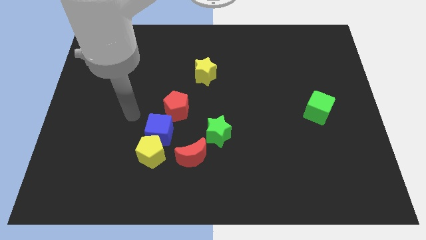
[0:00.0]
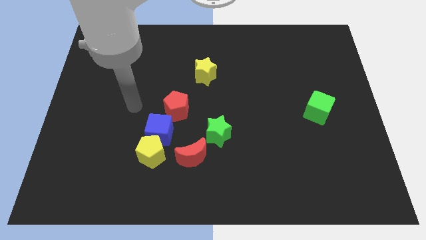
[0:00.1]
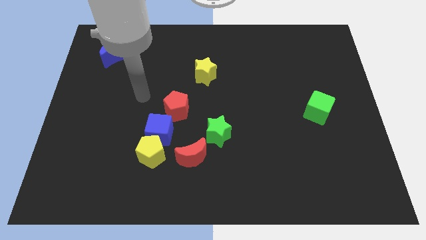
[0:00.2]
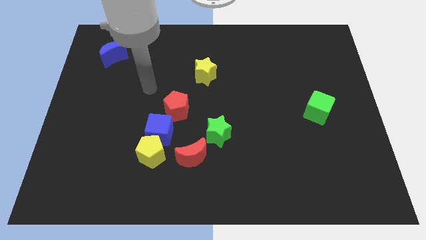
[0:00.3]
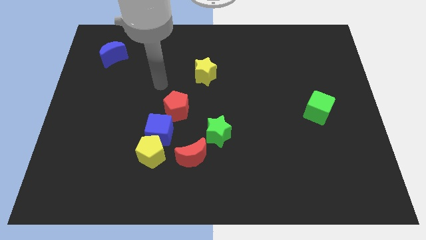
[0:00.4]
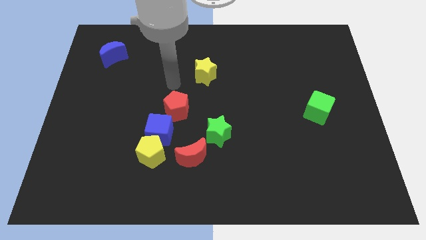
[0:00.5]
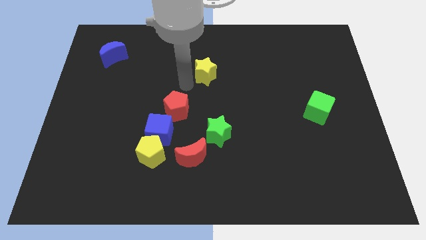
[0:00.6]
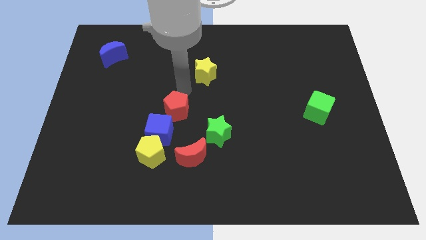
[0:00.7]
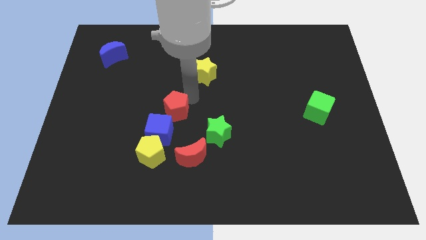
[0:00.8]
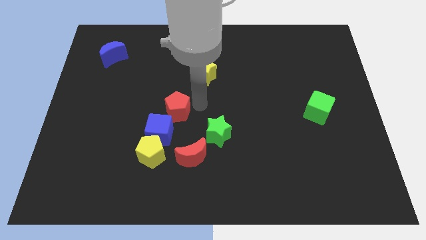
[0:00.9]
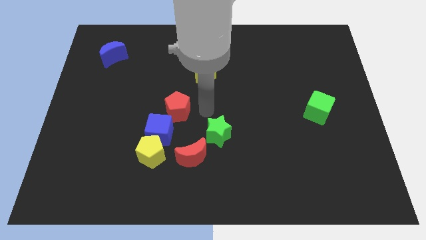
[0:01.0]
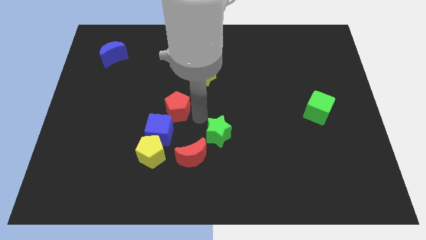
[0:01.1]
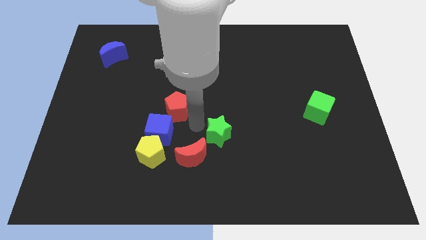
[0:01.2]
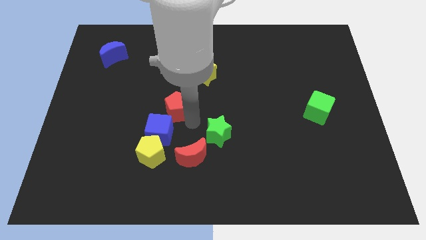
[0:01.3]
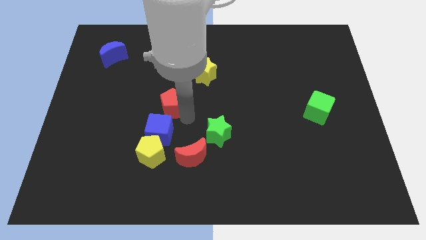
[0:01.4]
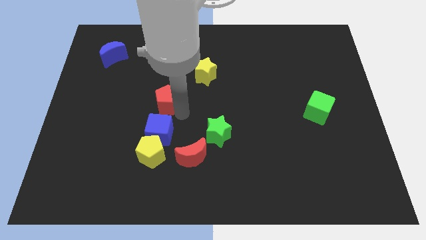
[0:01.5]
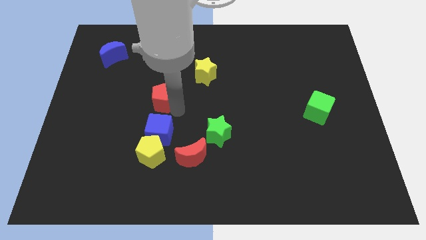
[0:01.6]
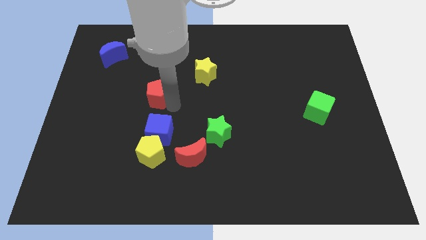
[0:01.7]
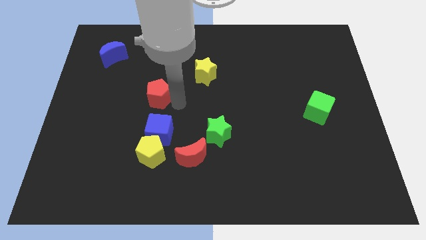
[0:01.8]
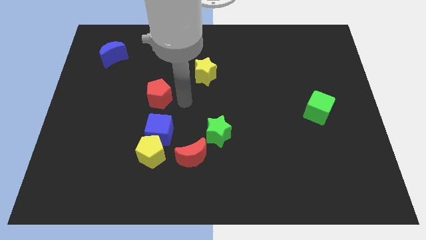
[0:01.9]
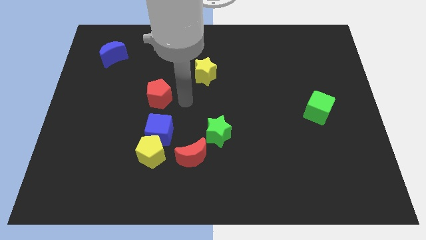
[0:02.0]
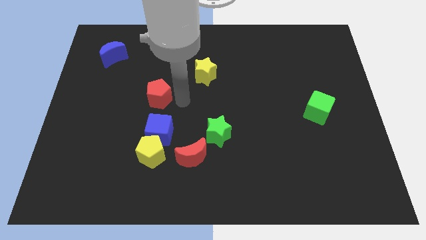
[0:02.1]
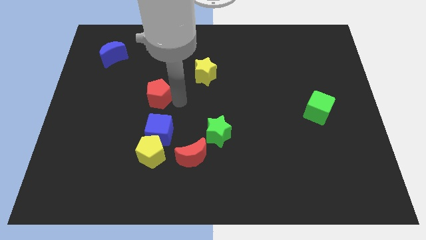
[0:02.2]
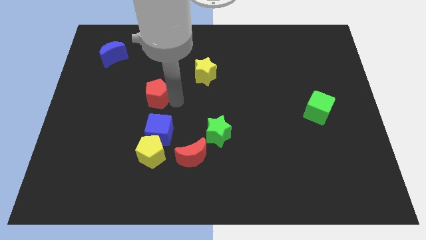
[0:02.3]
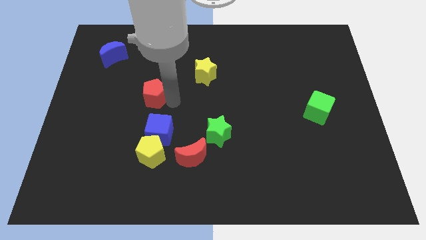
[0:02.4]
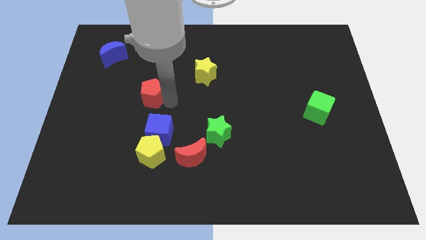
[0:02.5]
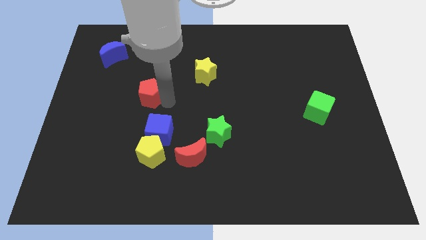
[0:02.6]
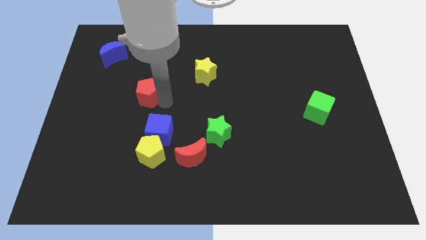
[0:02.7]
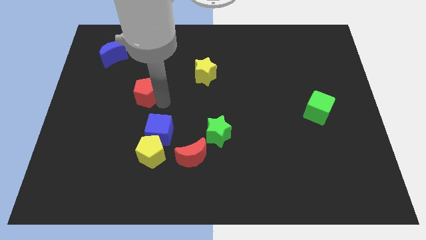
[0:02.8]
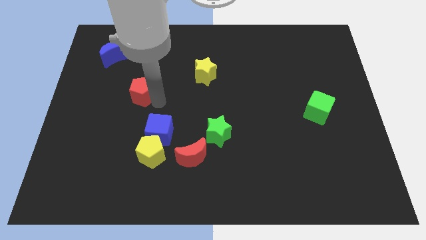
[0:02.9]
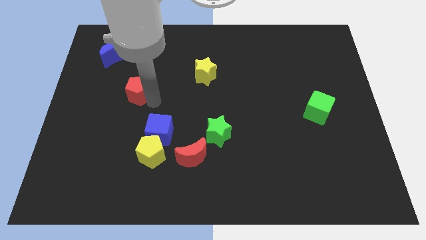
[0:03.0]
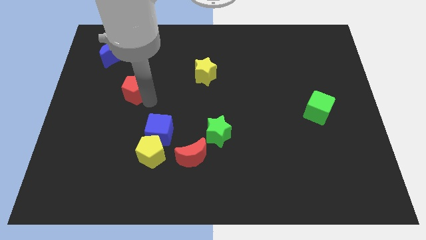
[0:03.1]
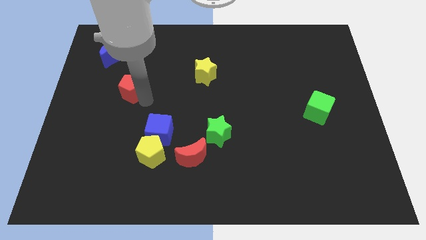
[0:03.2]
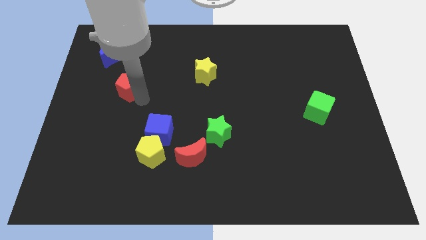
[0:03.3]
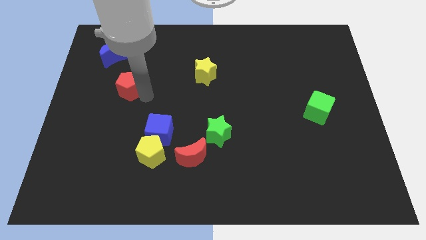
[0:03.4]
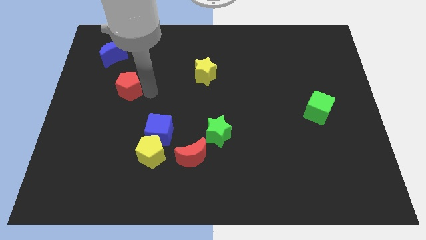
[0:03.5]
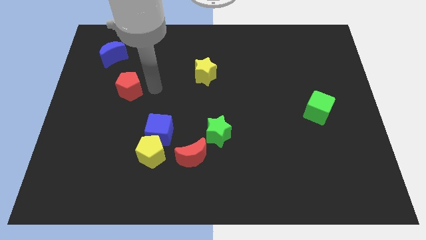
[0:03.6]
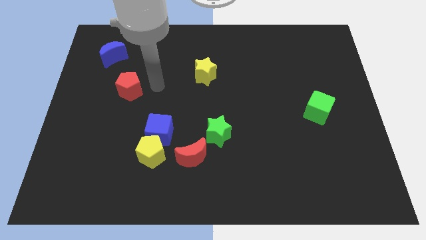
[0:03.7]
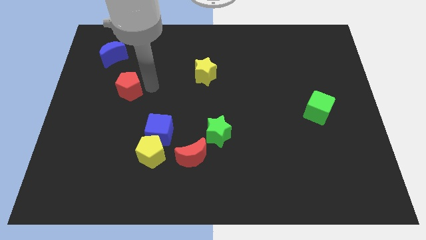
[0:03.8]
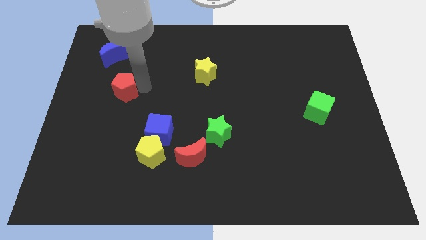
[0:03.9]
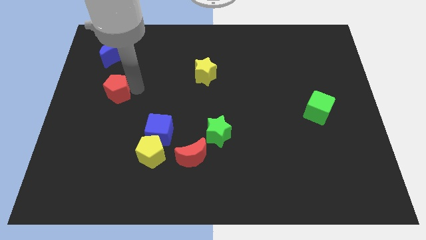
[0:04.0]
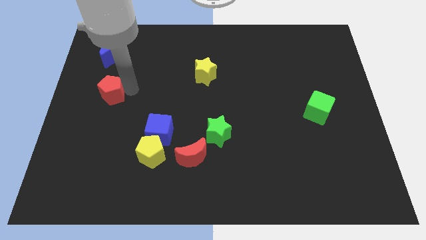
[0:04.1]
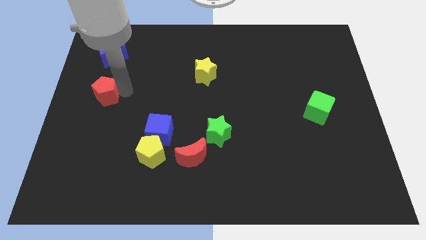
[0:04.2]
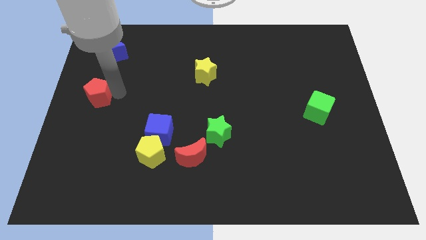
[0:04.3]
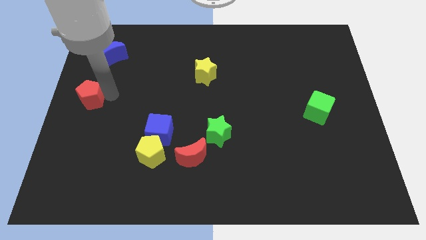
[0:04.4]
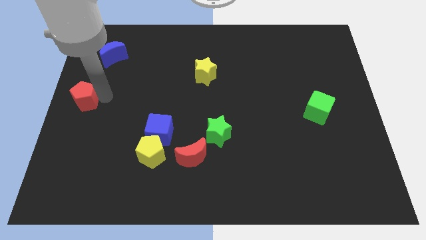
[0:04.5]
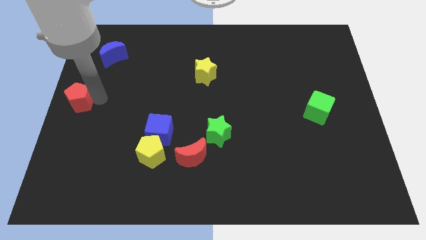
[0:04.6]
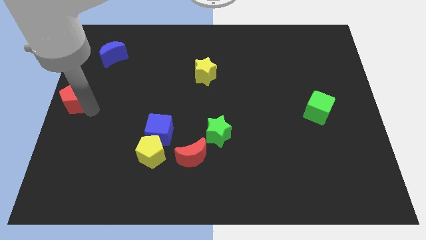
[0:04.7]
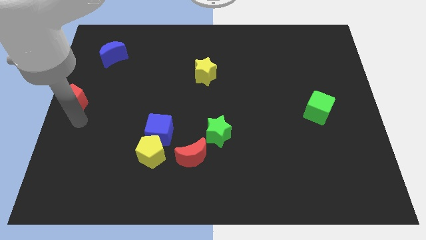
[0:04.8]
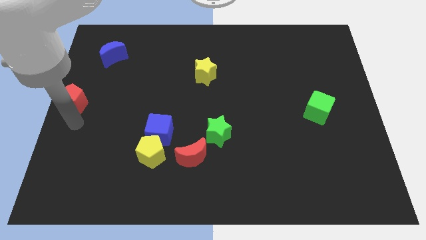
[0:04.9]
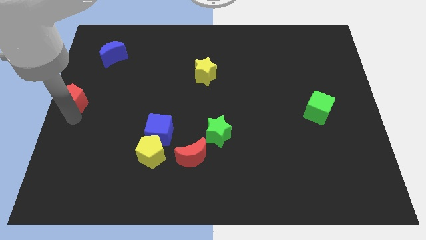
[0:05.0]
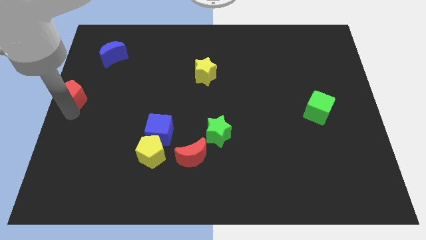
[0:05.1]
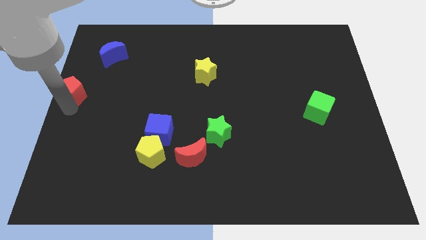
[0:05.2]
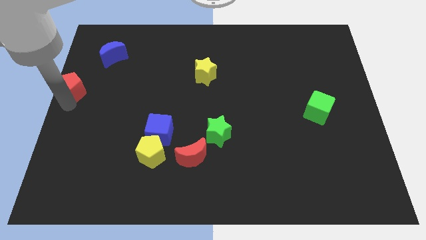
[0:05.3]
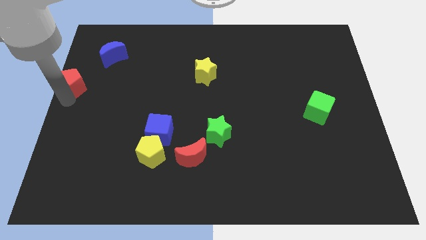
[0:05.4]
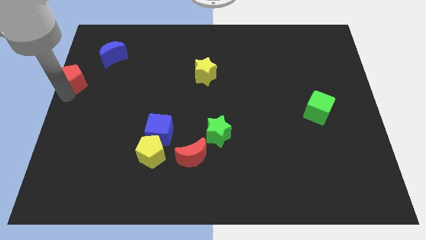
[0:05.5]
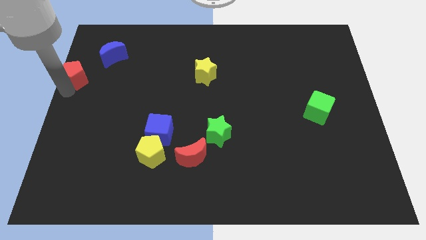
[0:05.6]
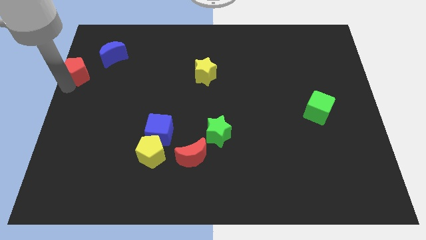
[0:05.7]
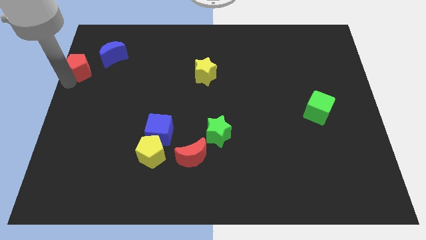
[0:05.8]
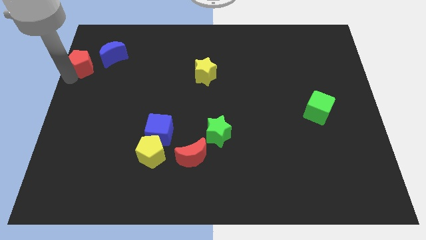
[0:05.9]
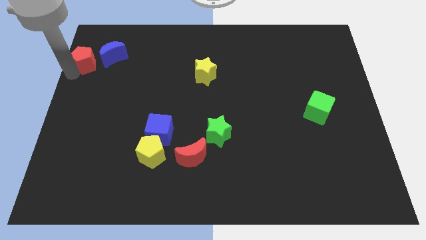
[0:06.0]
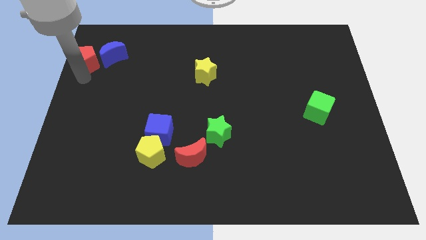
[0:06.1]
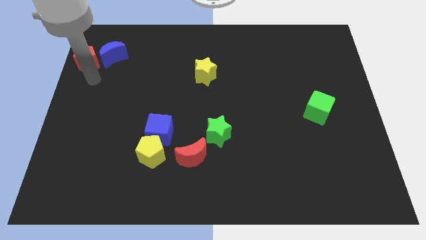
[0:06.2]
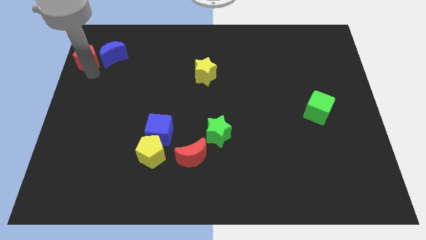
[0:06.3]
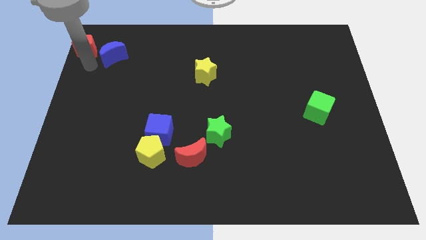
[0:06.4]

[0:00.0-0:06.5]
push the red pentagon to the top left
